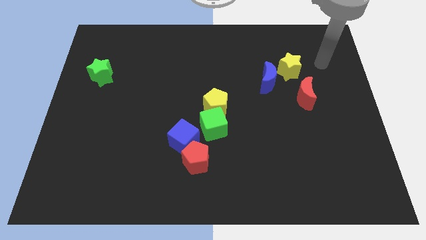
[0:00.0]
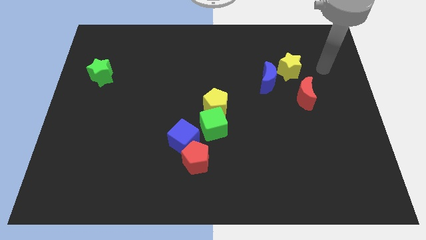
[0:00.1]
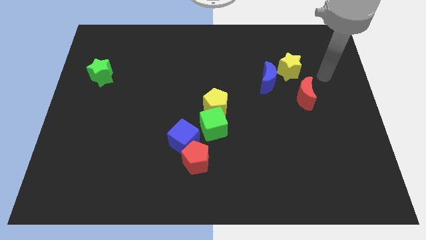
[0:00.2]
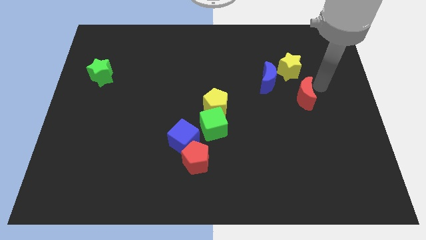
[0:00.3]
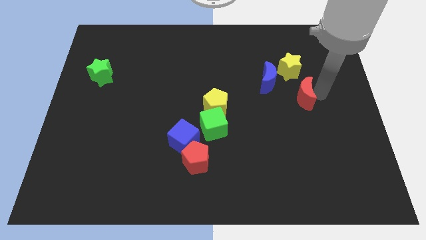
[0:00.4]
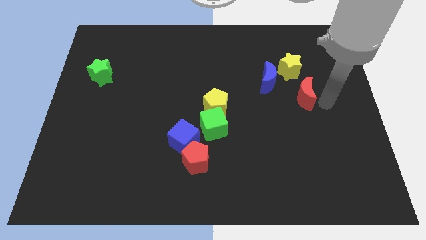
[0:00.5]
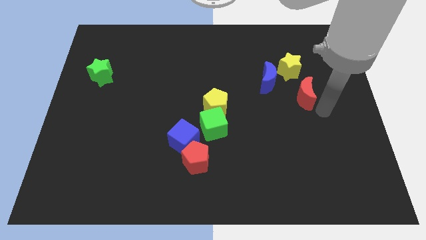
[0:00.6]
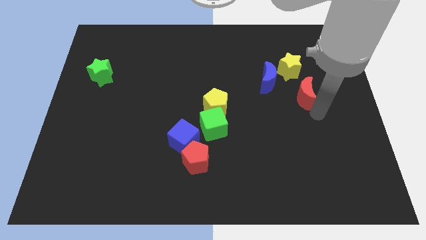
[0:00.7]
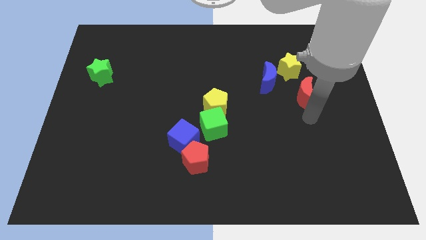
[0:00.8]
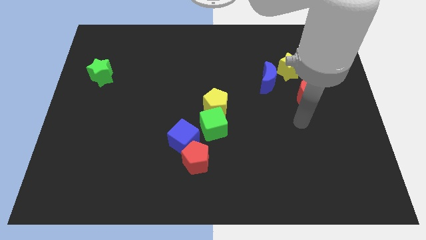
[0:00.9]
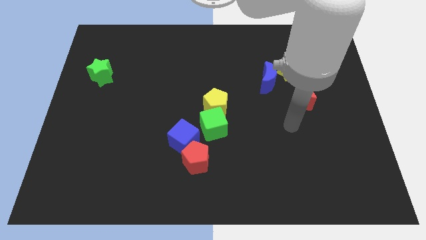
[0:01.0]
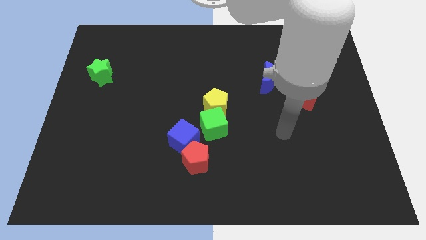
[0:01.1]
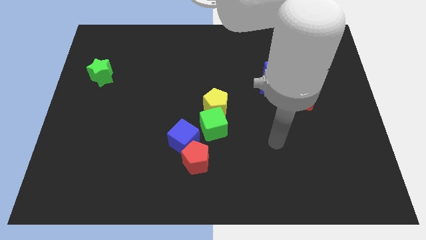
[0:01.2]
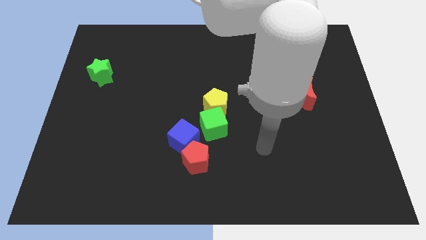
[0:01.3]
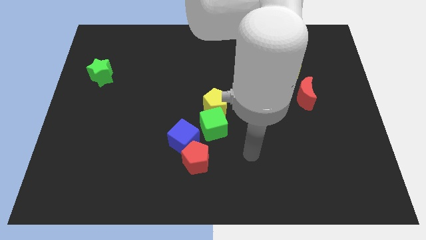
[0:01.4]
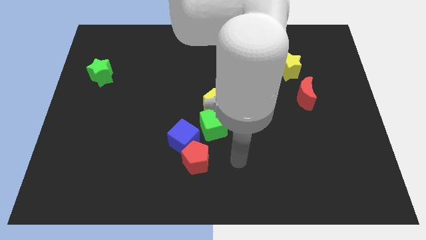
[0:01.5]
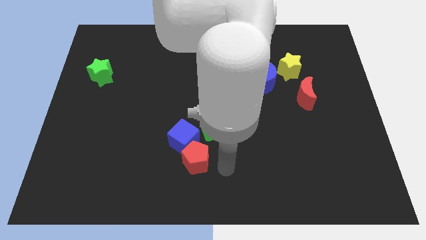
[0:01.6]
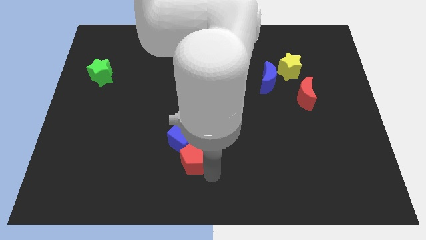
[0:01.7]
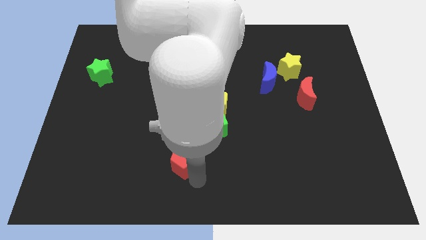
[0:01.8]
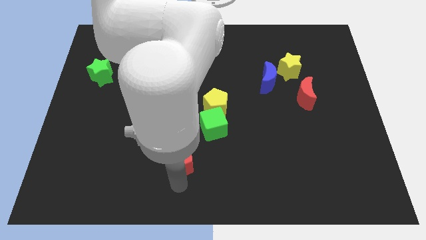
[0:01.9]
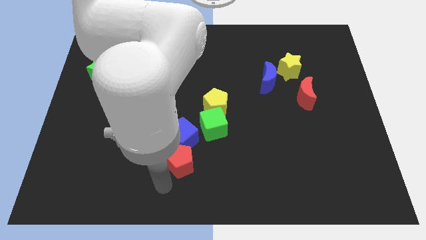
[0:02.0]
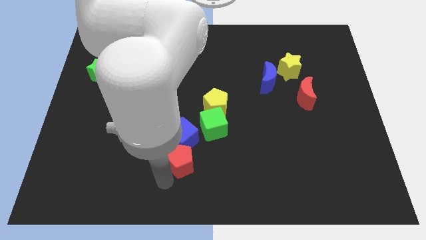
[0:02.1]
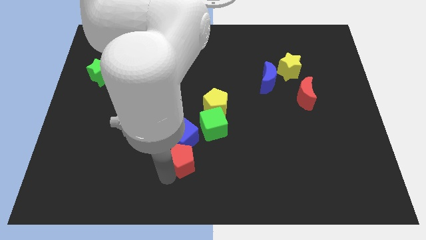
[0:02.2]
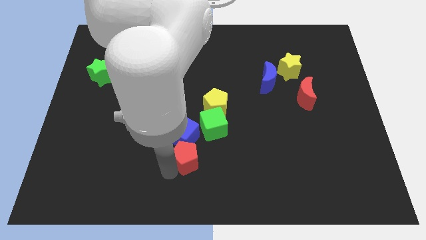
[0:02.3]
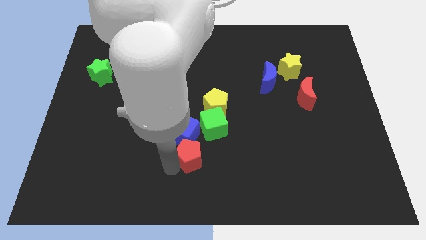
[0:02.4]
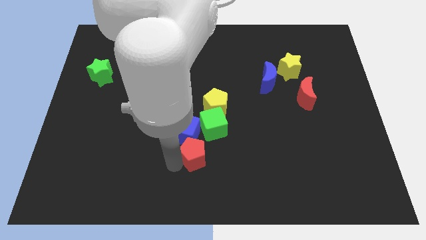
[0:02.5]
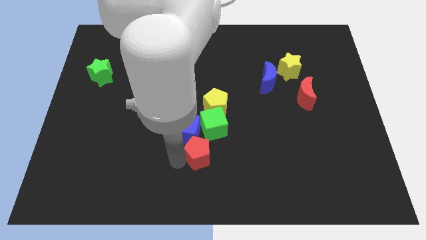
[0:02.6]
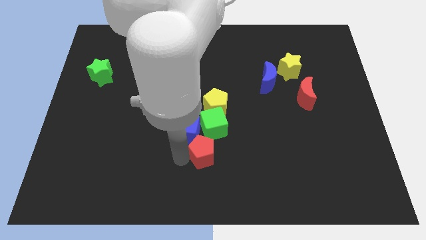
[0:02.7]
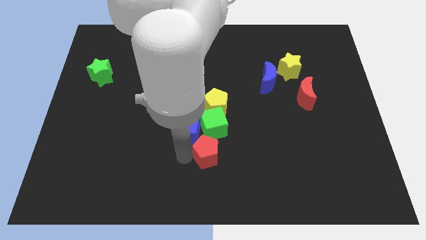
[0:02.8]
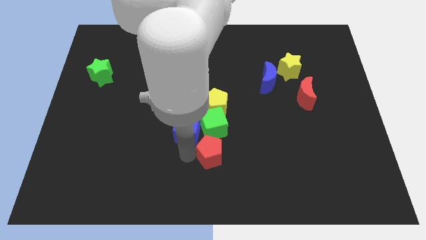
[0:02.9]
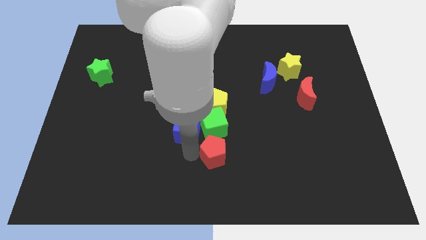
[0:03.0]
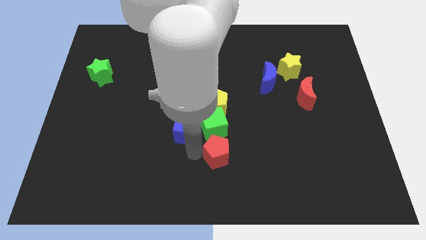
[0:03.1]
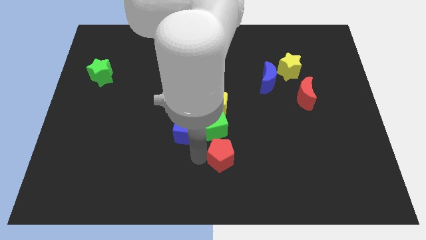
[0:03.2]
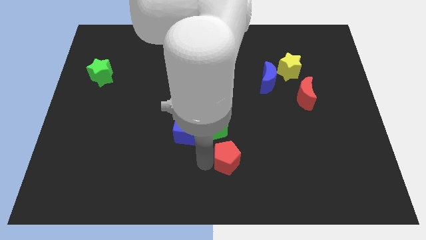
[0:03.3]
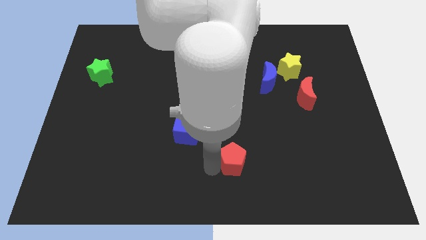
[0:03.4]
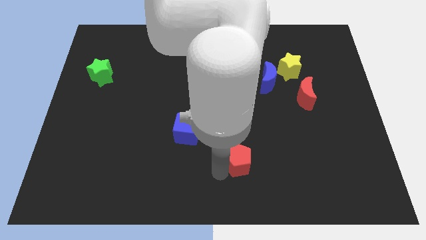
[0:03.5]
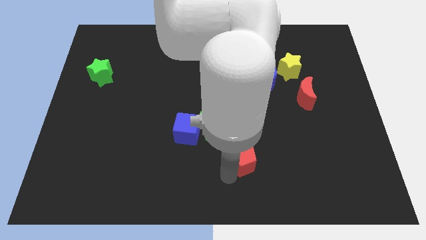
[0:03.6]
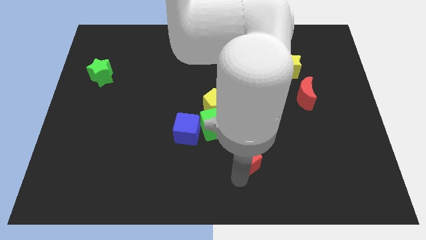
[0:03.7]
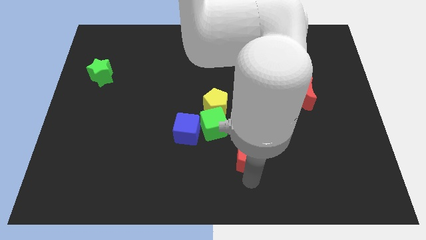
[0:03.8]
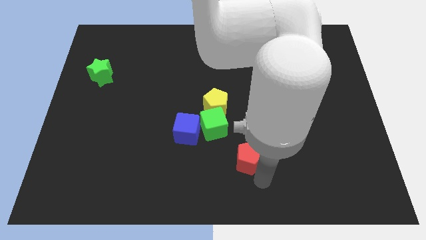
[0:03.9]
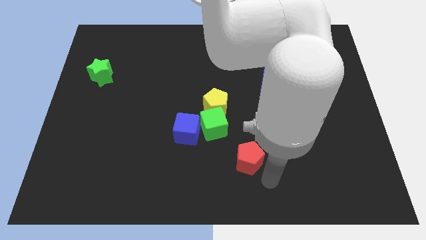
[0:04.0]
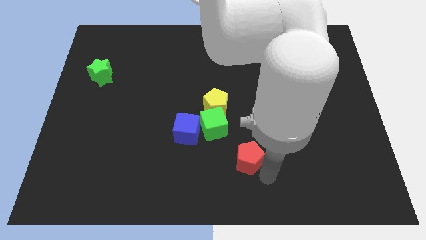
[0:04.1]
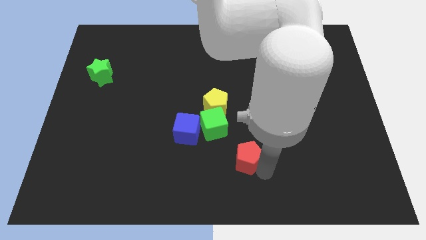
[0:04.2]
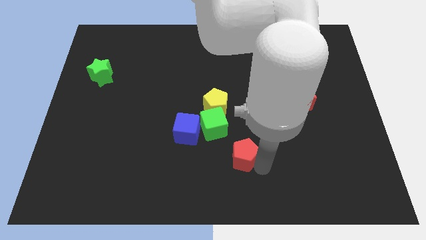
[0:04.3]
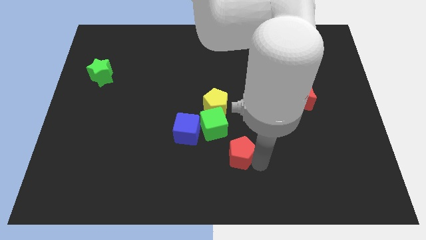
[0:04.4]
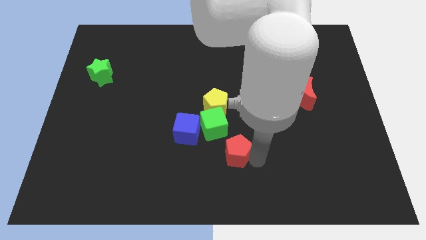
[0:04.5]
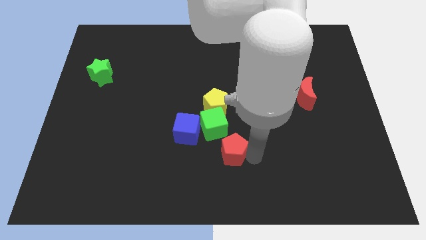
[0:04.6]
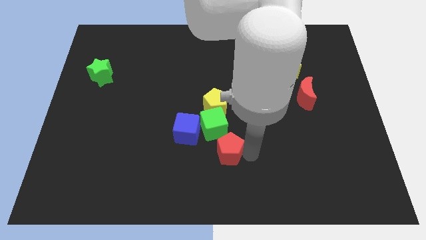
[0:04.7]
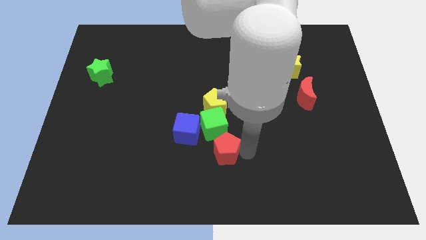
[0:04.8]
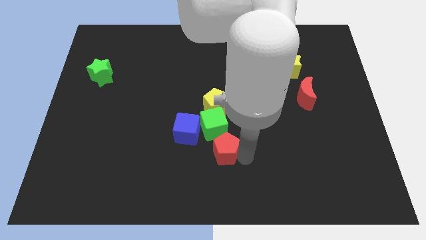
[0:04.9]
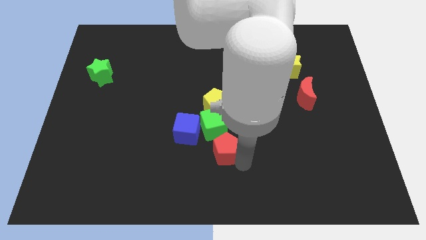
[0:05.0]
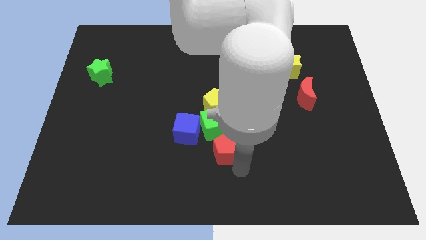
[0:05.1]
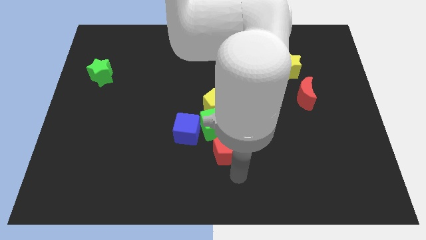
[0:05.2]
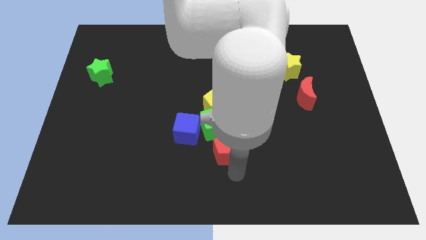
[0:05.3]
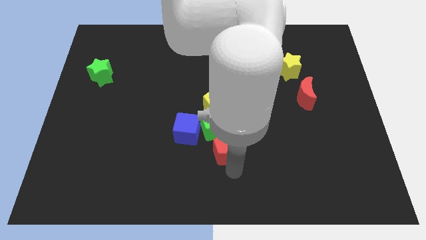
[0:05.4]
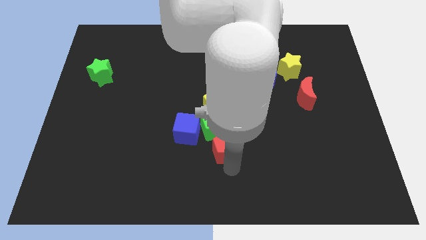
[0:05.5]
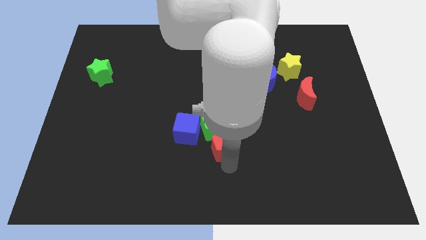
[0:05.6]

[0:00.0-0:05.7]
put the red pentagon close to the green cube
